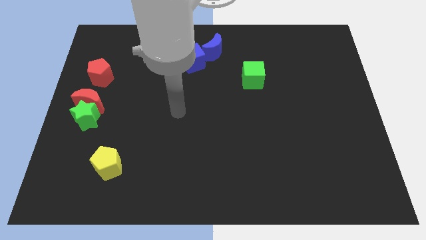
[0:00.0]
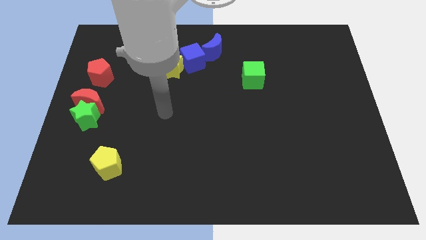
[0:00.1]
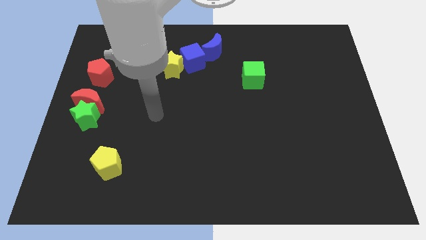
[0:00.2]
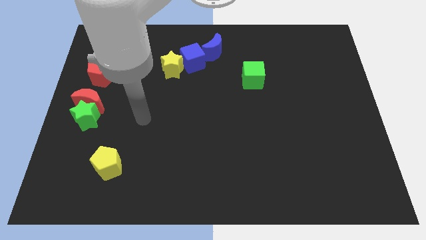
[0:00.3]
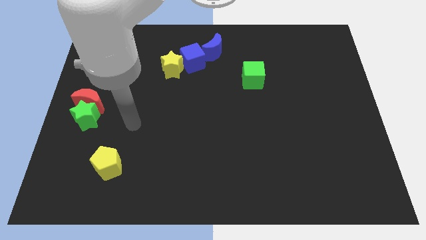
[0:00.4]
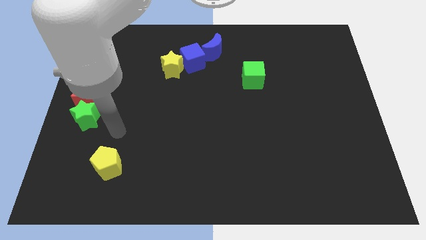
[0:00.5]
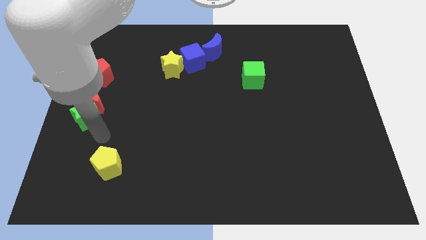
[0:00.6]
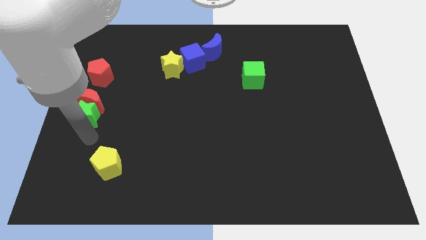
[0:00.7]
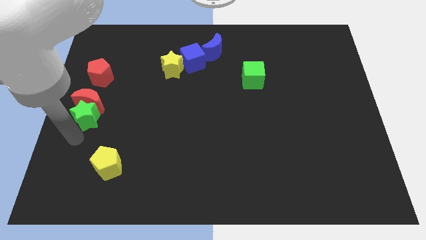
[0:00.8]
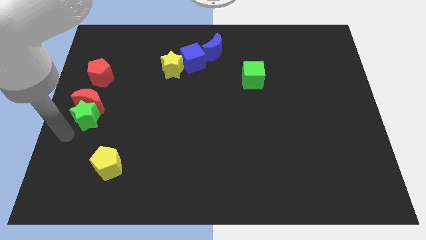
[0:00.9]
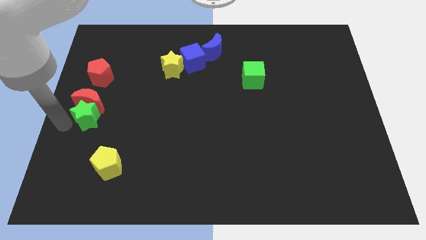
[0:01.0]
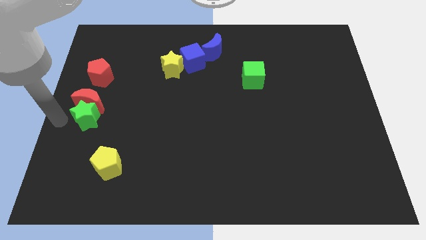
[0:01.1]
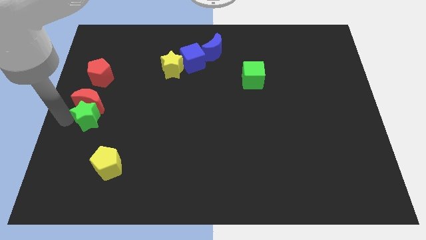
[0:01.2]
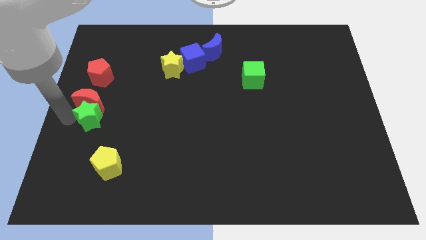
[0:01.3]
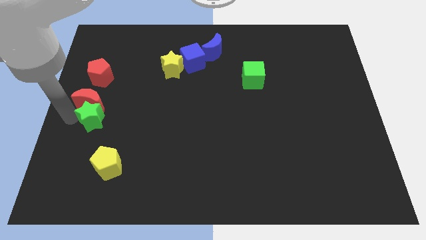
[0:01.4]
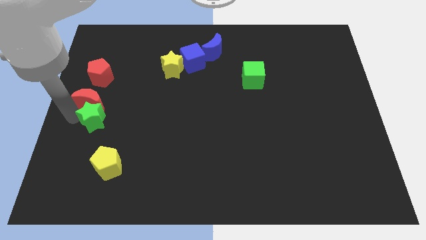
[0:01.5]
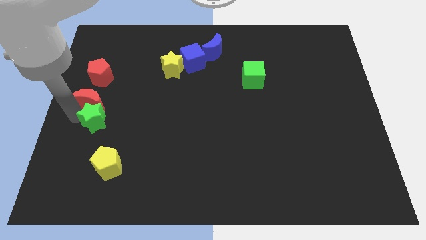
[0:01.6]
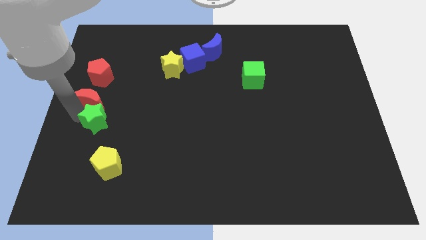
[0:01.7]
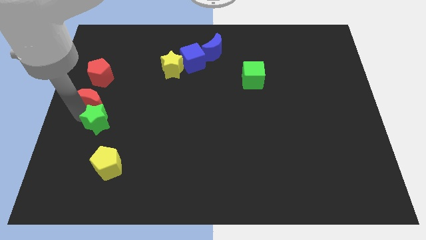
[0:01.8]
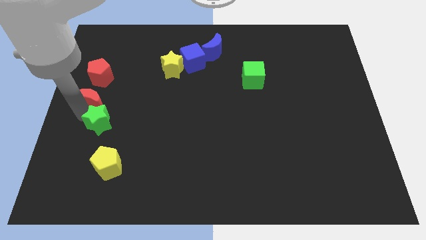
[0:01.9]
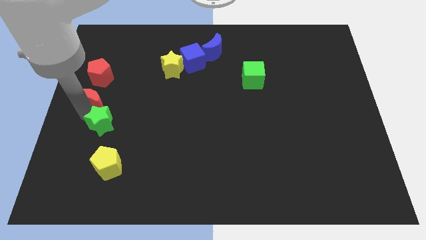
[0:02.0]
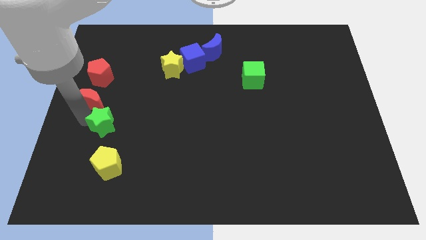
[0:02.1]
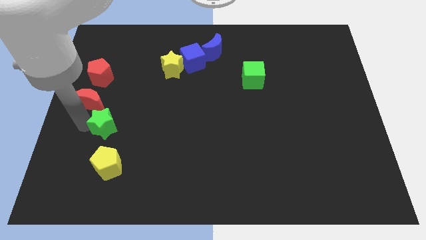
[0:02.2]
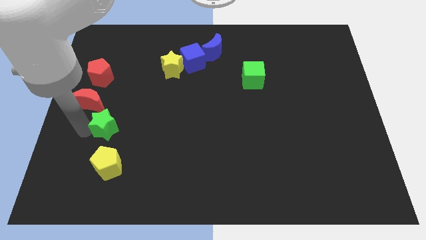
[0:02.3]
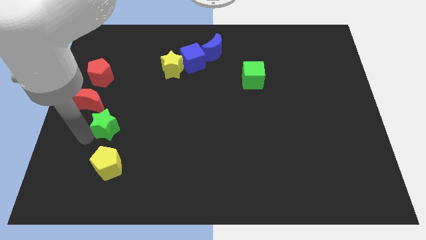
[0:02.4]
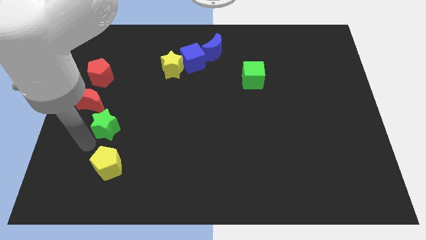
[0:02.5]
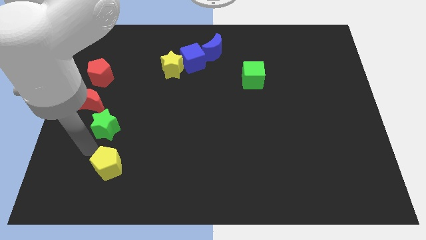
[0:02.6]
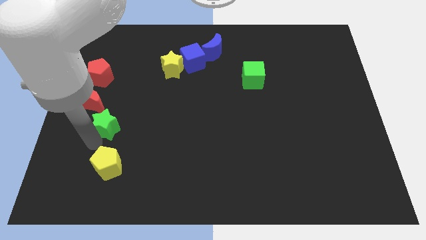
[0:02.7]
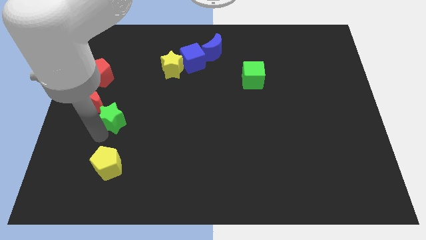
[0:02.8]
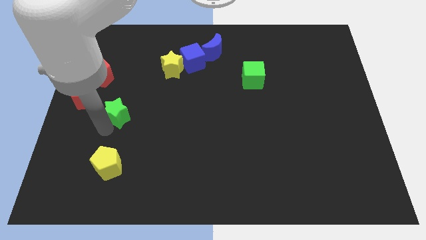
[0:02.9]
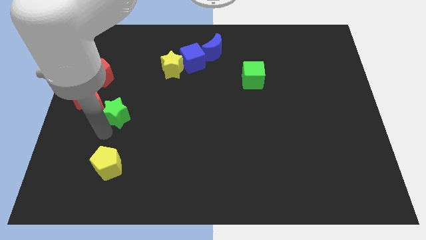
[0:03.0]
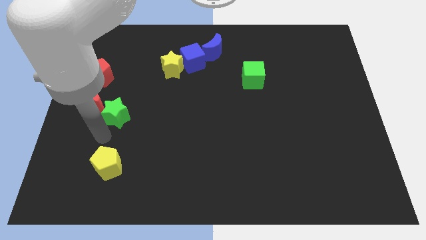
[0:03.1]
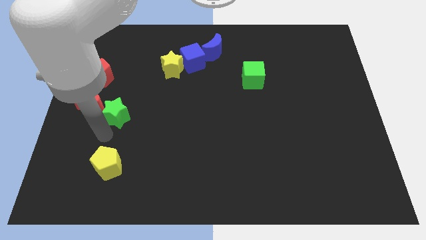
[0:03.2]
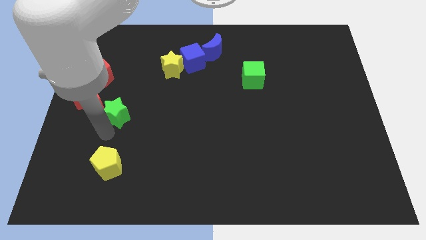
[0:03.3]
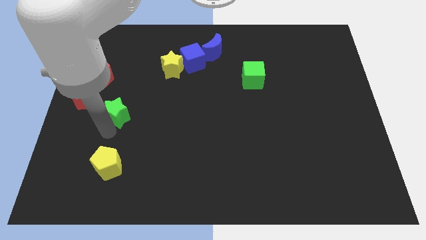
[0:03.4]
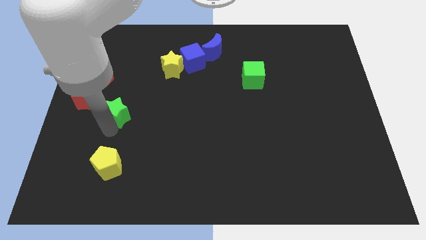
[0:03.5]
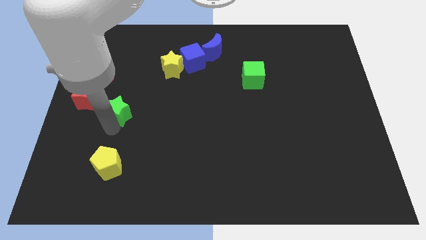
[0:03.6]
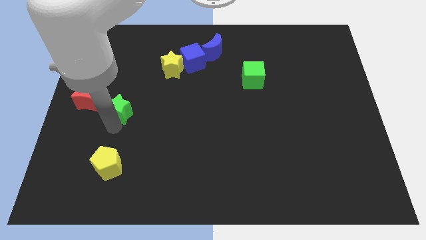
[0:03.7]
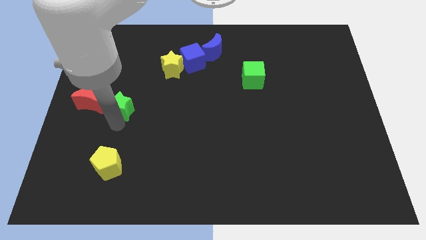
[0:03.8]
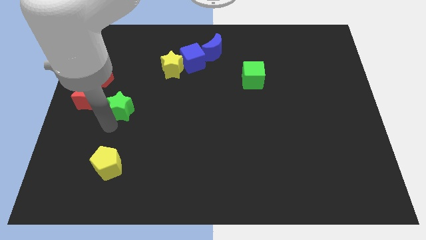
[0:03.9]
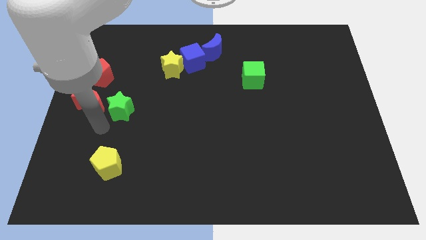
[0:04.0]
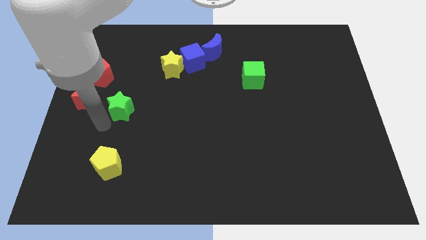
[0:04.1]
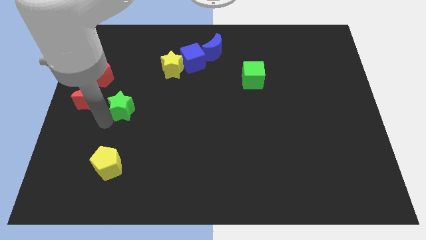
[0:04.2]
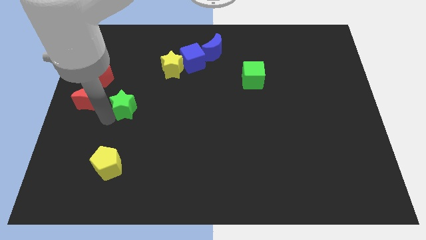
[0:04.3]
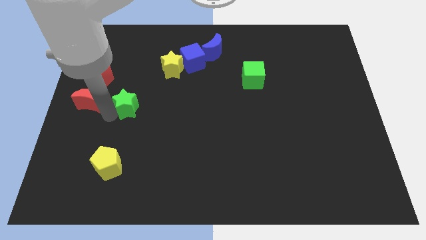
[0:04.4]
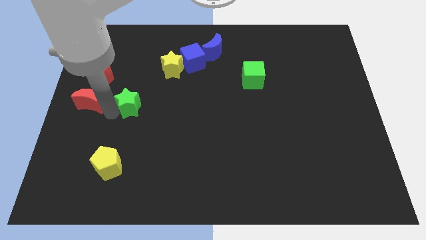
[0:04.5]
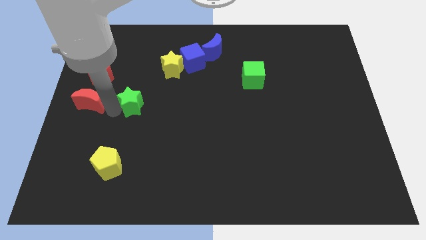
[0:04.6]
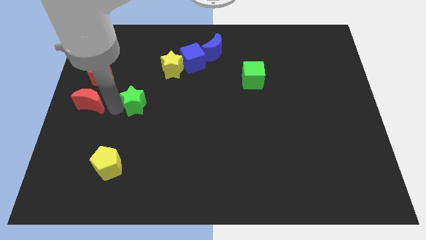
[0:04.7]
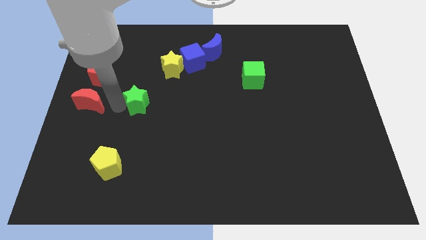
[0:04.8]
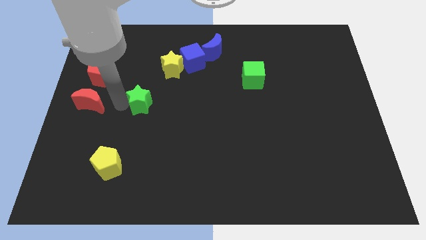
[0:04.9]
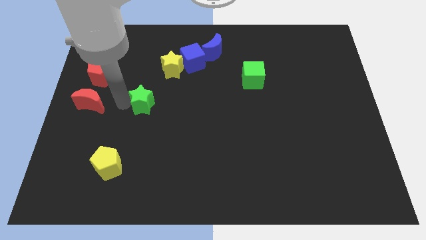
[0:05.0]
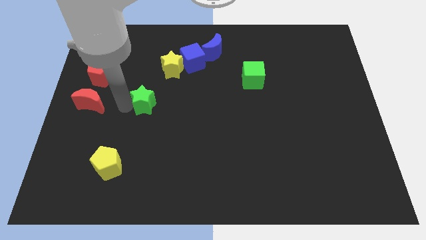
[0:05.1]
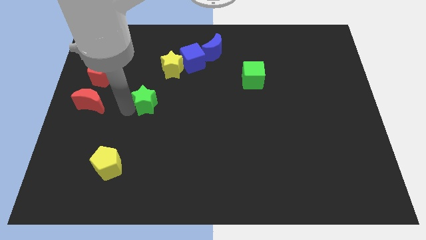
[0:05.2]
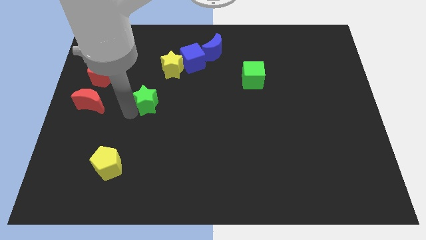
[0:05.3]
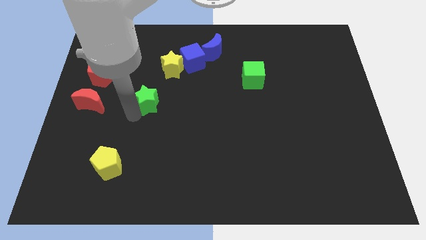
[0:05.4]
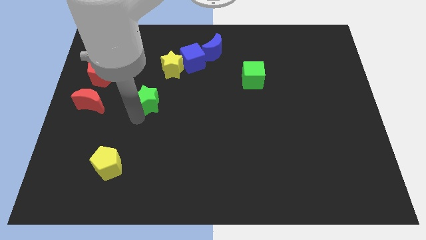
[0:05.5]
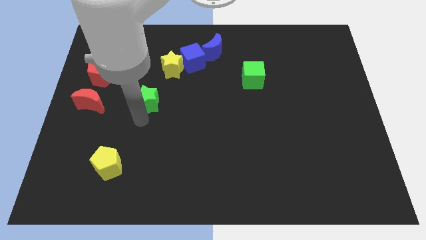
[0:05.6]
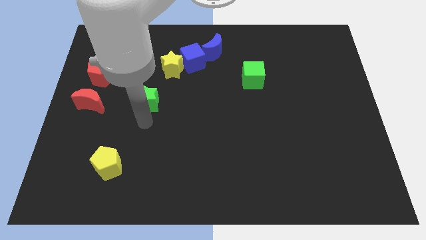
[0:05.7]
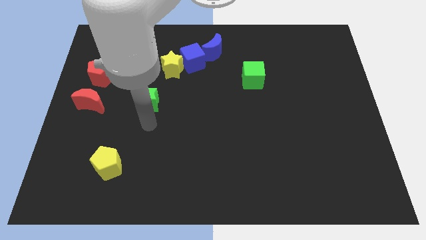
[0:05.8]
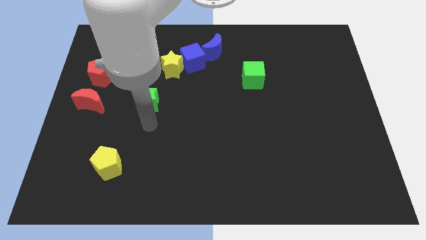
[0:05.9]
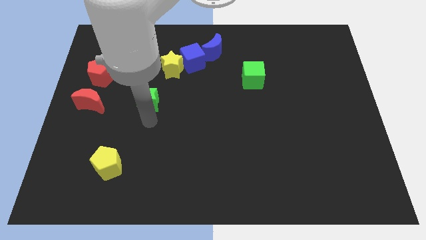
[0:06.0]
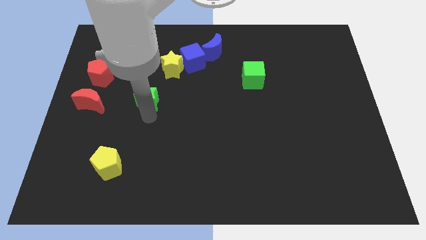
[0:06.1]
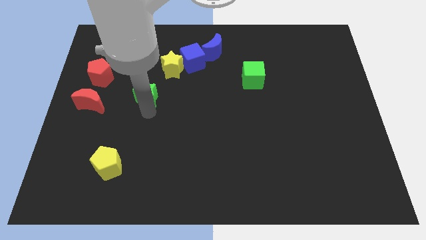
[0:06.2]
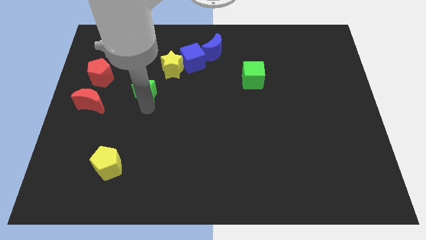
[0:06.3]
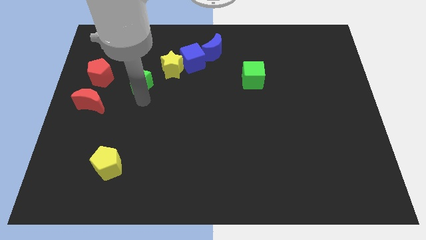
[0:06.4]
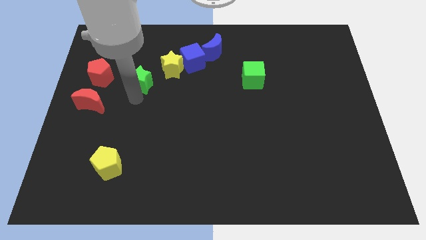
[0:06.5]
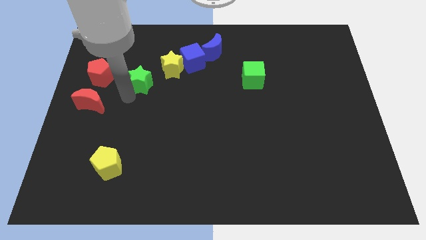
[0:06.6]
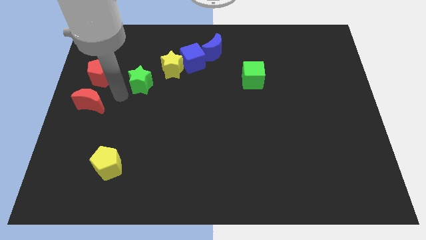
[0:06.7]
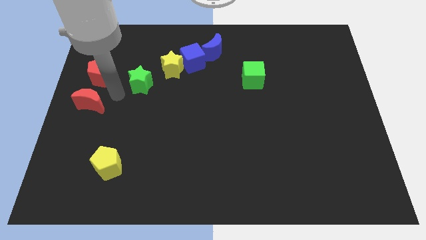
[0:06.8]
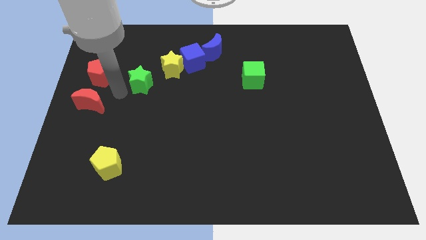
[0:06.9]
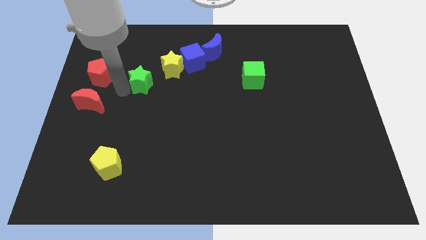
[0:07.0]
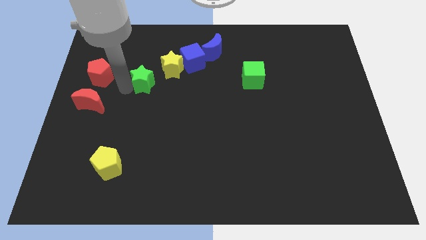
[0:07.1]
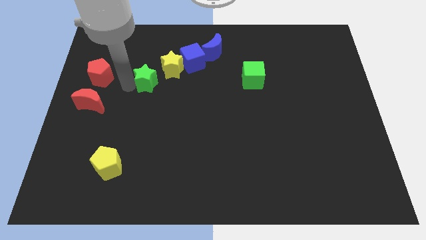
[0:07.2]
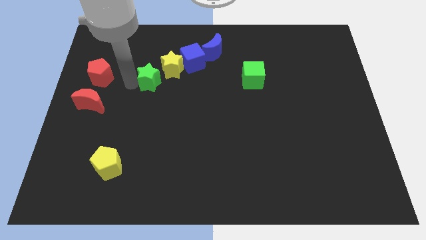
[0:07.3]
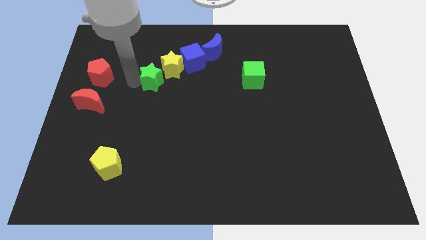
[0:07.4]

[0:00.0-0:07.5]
move the green star to the yellow star
